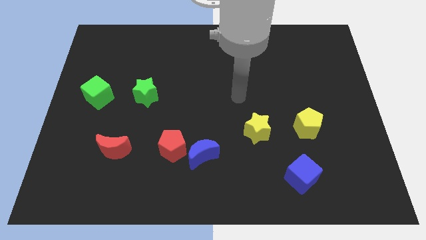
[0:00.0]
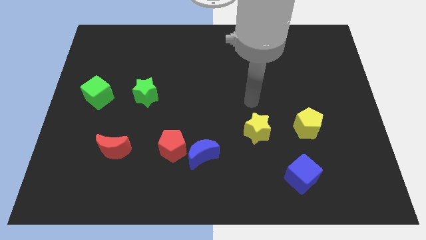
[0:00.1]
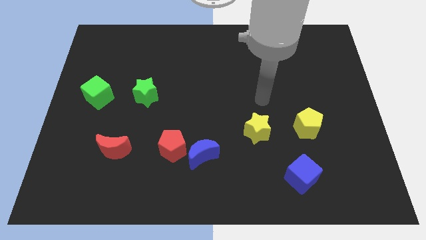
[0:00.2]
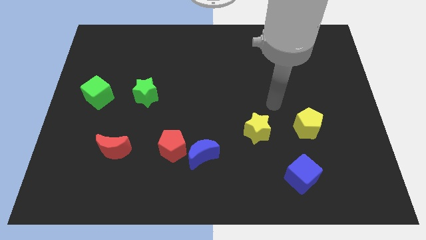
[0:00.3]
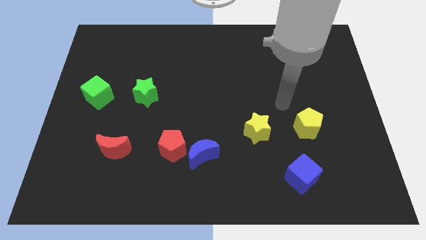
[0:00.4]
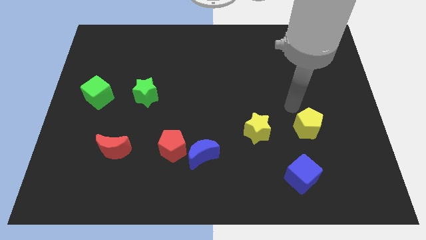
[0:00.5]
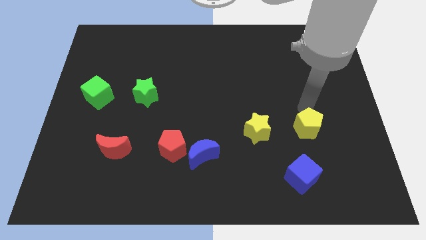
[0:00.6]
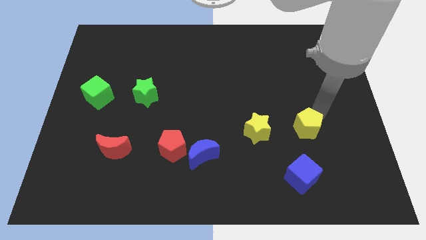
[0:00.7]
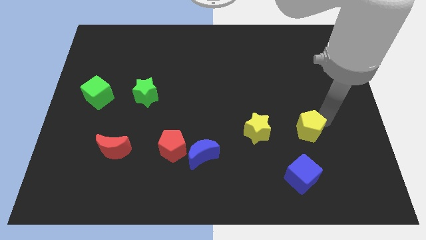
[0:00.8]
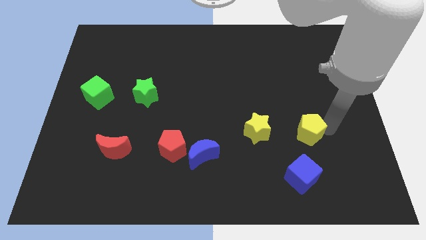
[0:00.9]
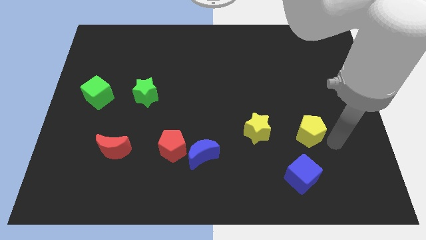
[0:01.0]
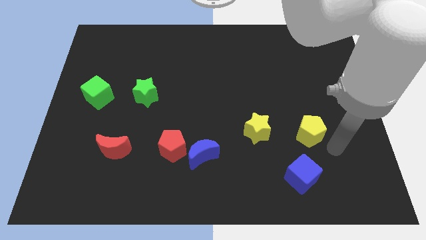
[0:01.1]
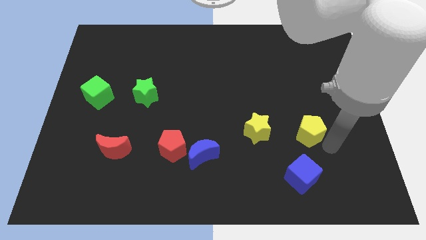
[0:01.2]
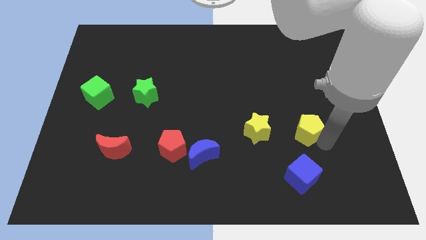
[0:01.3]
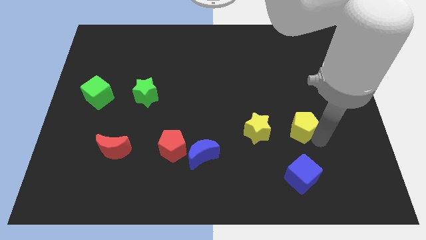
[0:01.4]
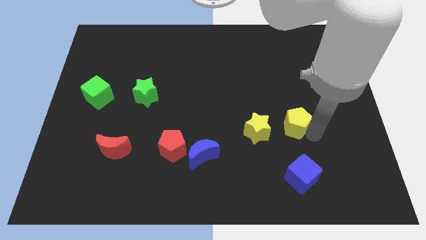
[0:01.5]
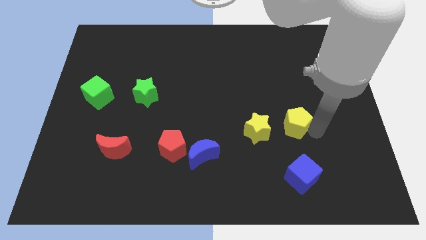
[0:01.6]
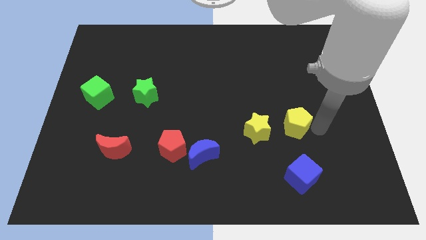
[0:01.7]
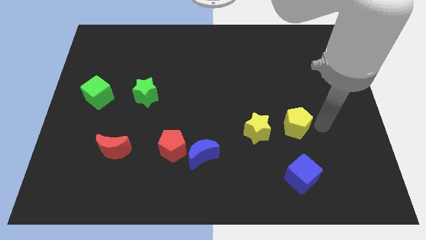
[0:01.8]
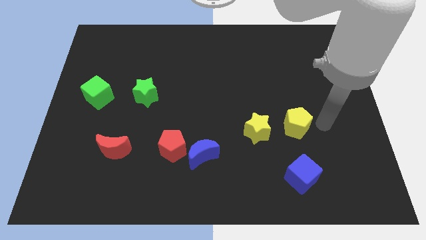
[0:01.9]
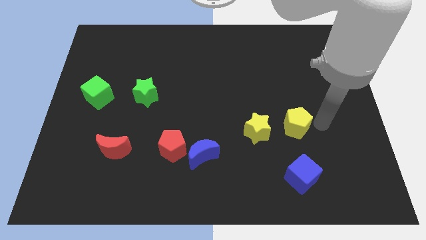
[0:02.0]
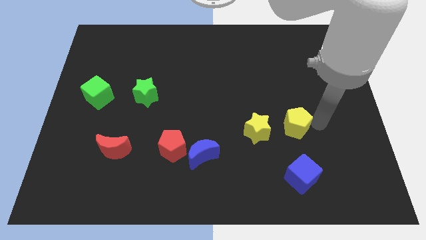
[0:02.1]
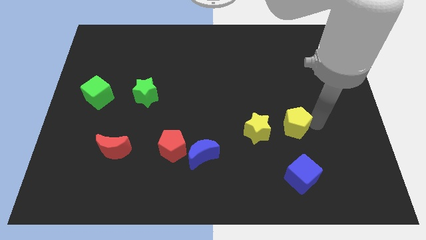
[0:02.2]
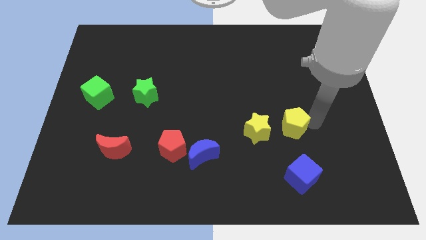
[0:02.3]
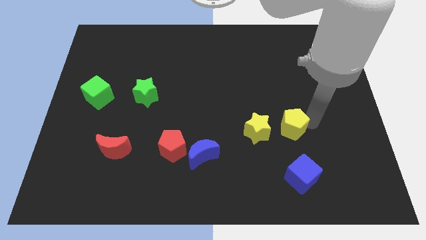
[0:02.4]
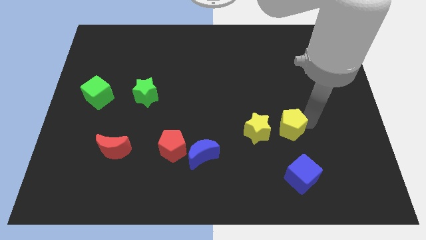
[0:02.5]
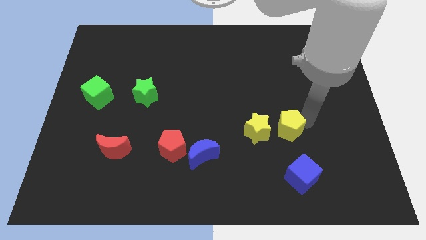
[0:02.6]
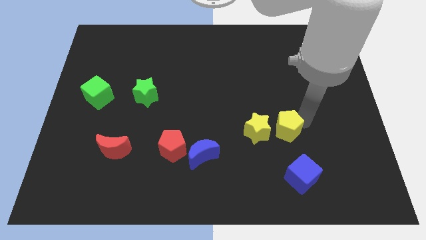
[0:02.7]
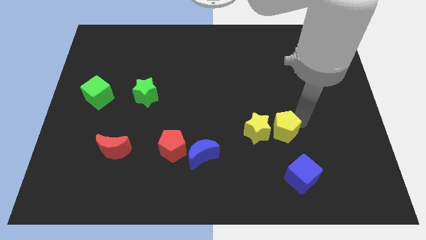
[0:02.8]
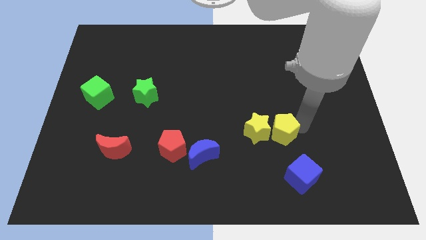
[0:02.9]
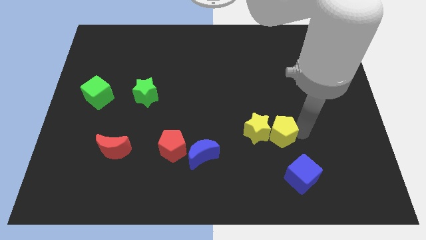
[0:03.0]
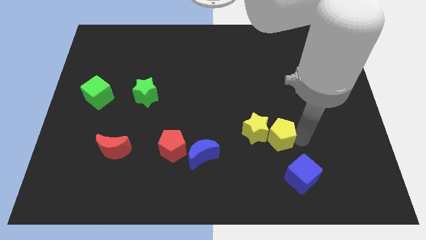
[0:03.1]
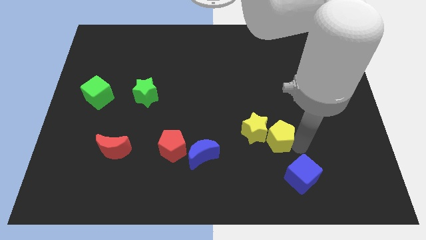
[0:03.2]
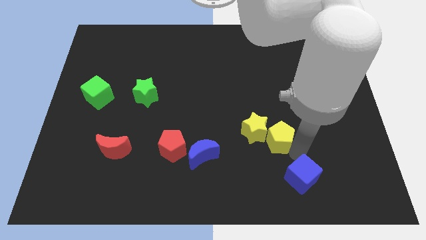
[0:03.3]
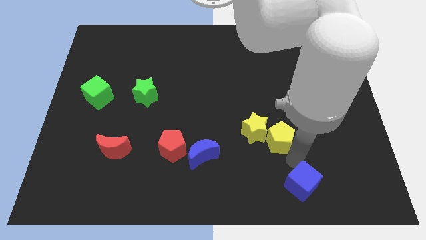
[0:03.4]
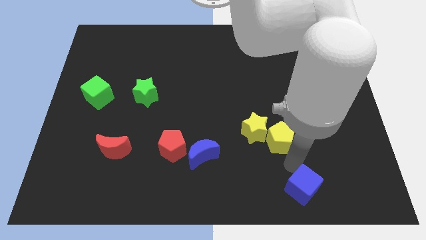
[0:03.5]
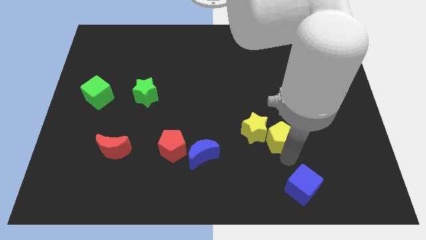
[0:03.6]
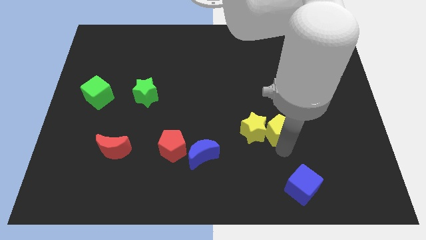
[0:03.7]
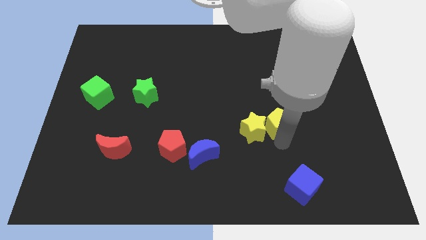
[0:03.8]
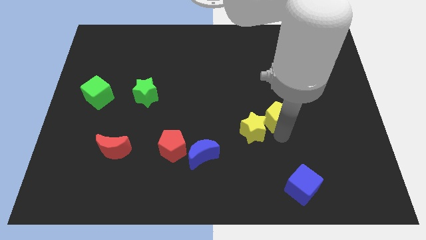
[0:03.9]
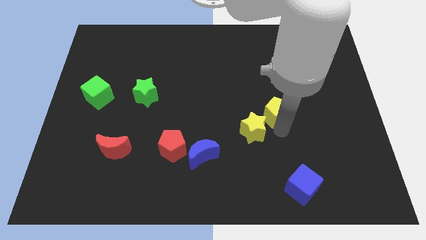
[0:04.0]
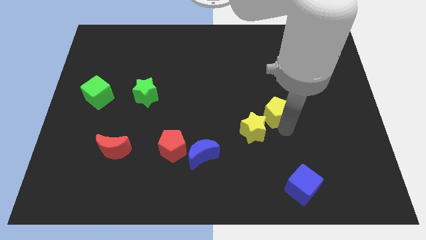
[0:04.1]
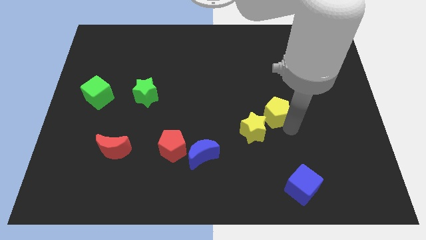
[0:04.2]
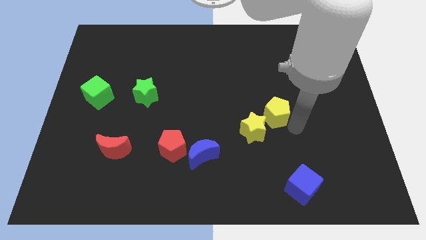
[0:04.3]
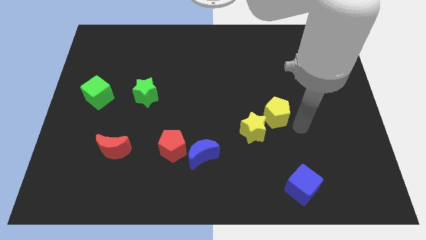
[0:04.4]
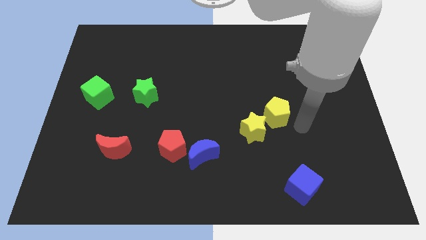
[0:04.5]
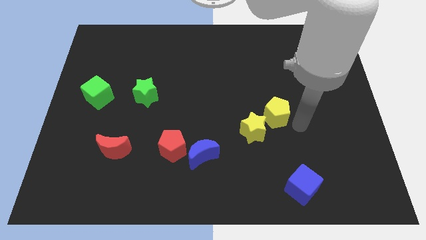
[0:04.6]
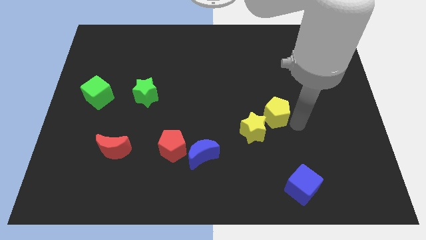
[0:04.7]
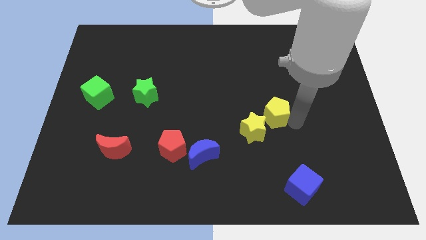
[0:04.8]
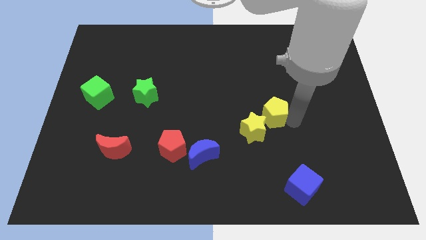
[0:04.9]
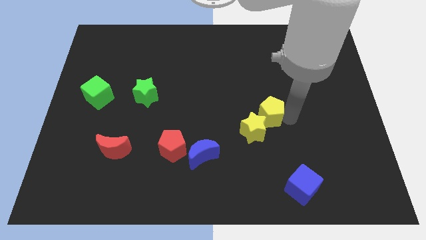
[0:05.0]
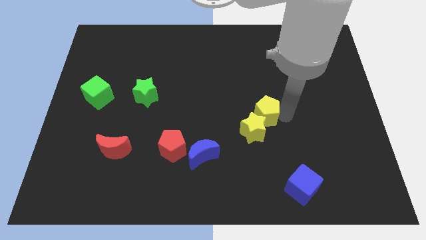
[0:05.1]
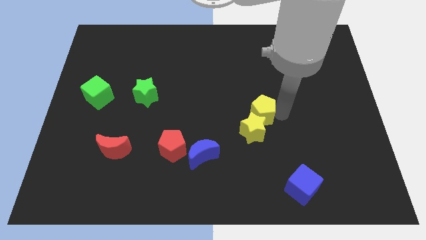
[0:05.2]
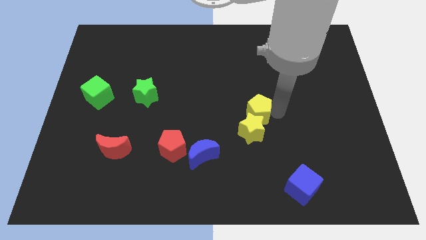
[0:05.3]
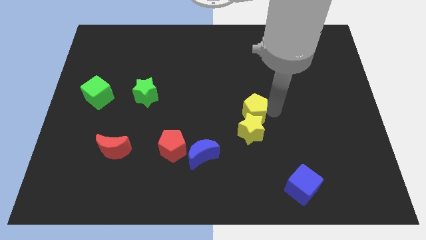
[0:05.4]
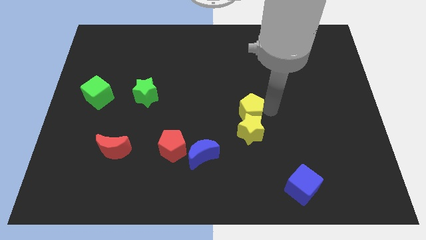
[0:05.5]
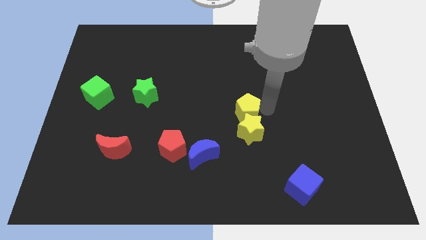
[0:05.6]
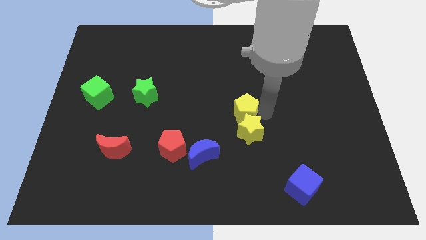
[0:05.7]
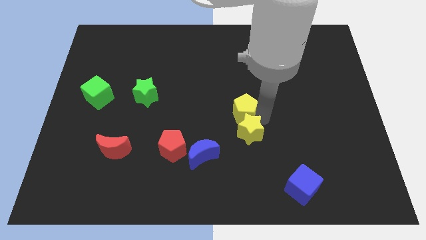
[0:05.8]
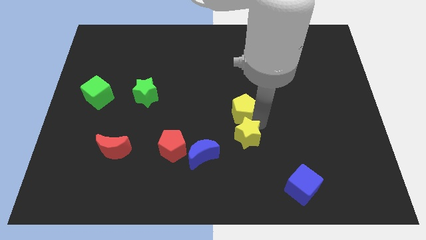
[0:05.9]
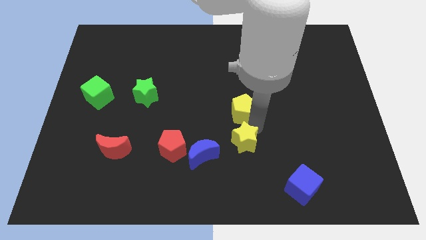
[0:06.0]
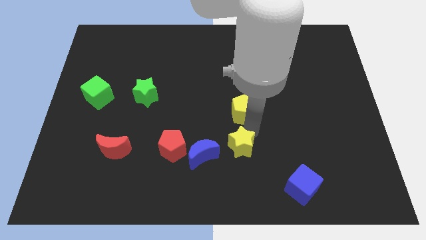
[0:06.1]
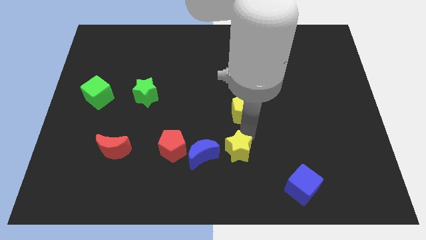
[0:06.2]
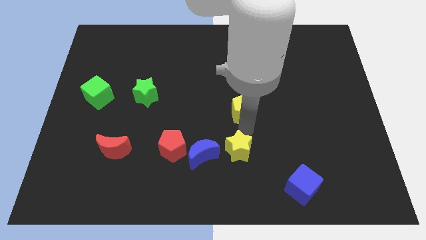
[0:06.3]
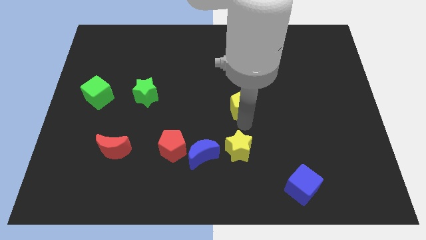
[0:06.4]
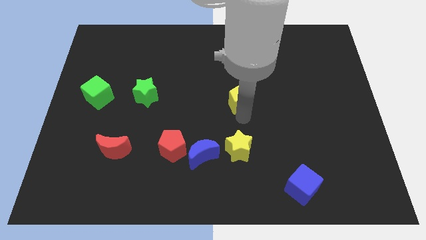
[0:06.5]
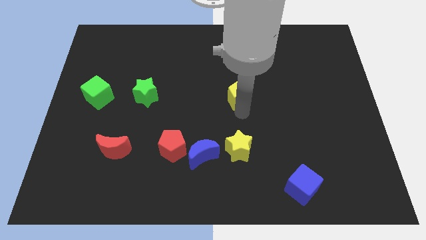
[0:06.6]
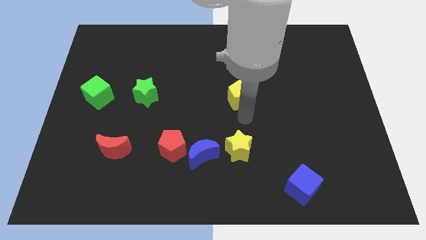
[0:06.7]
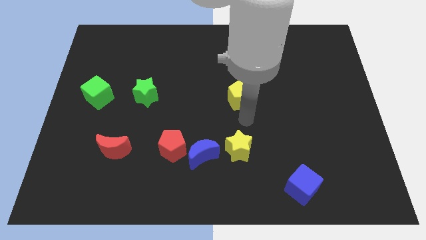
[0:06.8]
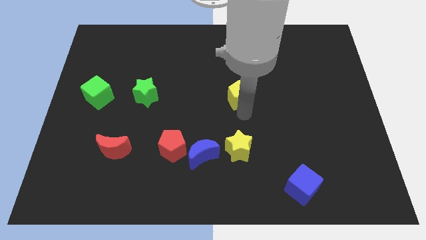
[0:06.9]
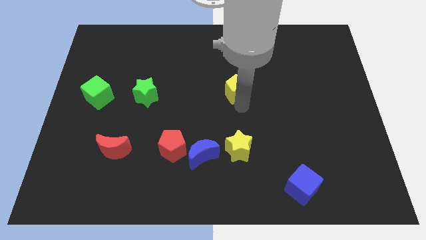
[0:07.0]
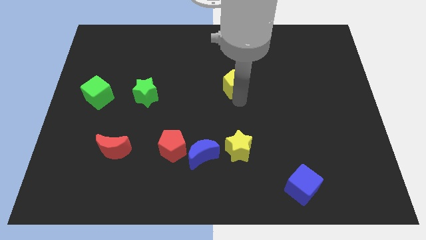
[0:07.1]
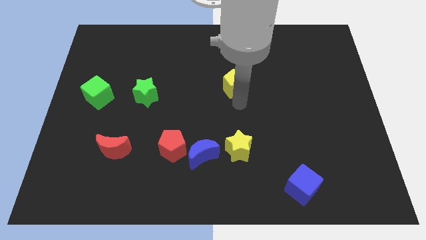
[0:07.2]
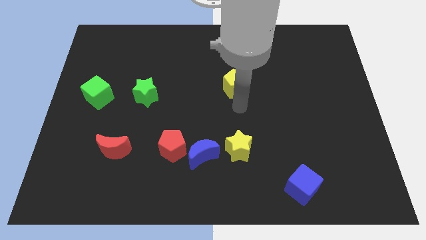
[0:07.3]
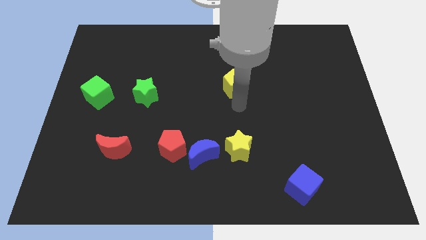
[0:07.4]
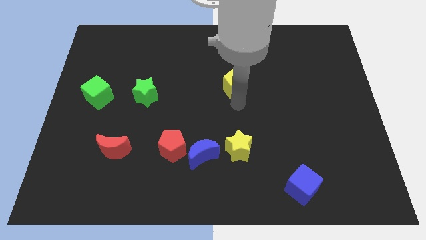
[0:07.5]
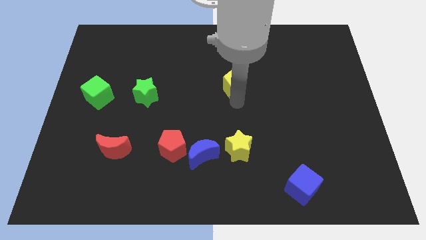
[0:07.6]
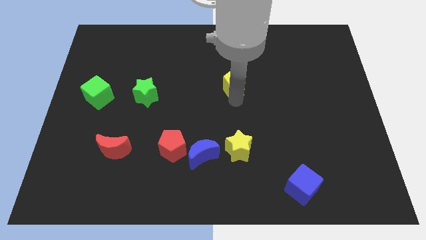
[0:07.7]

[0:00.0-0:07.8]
slide the yellow pentagon up and left diagonally
